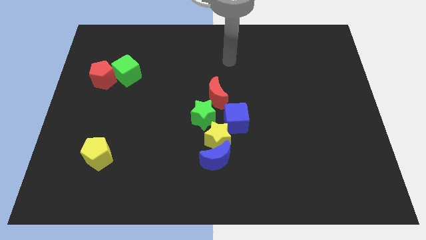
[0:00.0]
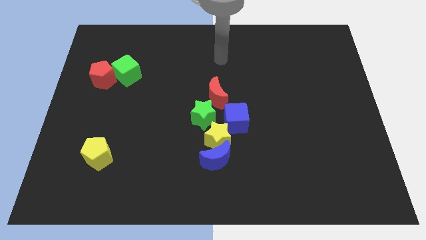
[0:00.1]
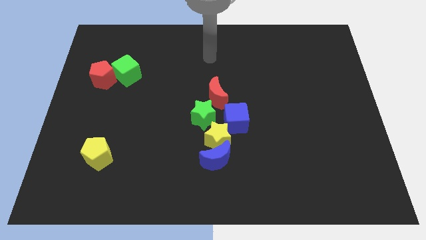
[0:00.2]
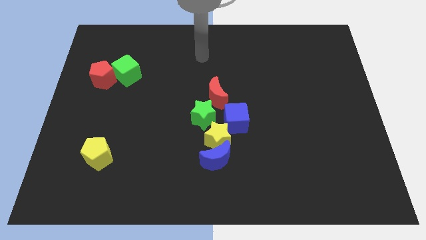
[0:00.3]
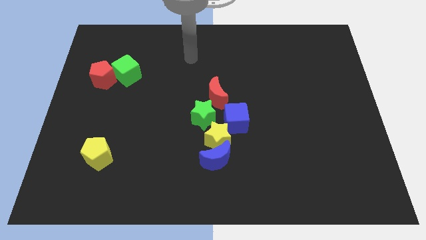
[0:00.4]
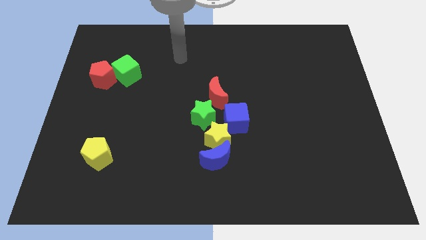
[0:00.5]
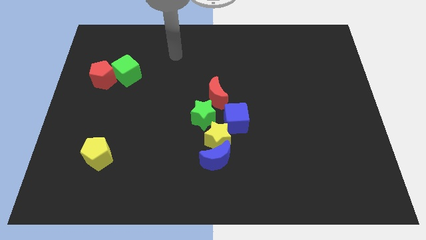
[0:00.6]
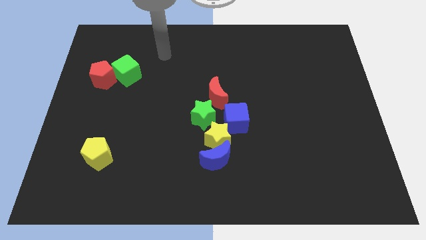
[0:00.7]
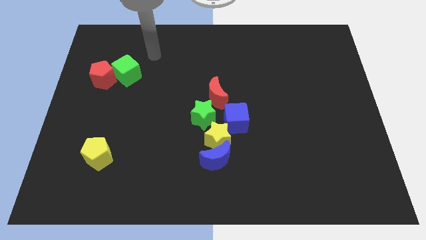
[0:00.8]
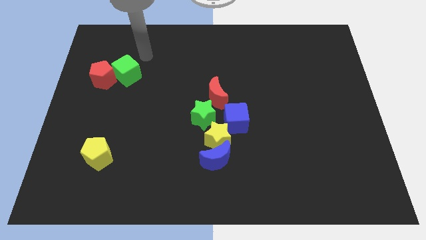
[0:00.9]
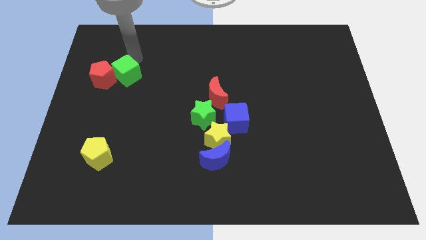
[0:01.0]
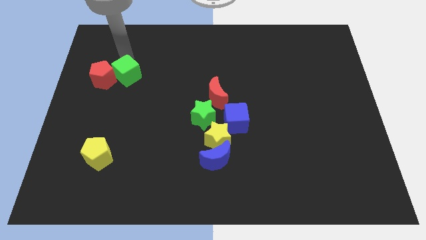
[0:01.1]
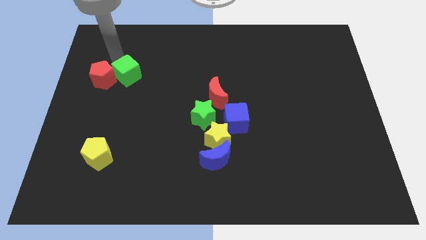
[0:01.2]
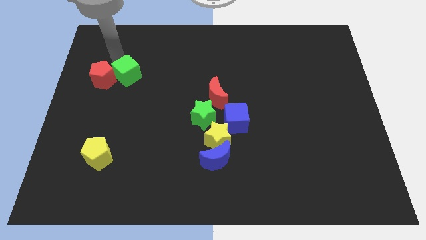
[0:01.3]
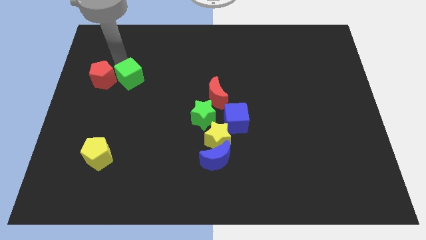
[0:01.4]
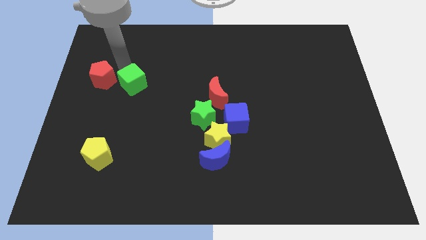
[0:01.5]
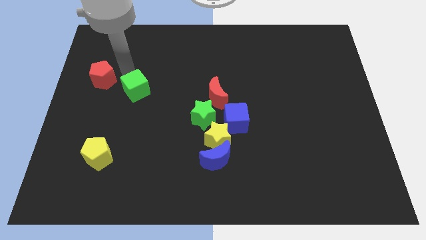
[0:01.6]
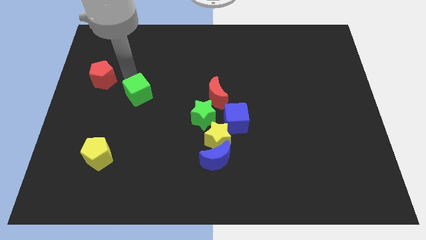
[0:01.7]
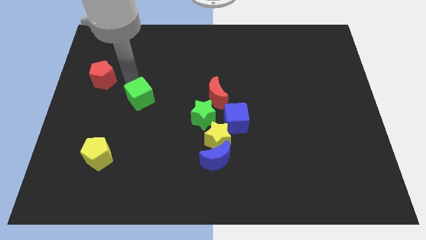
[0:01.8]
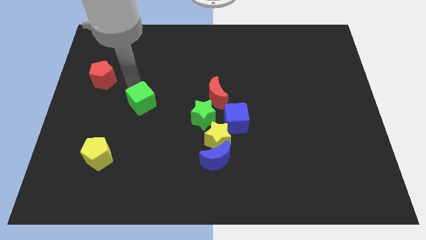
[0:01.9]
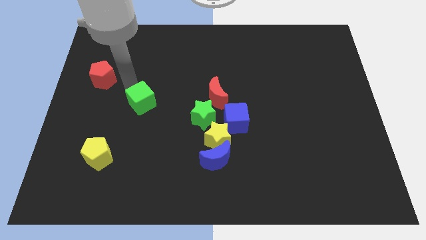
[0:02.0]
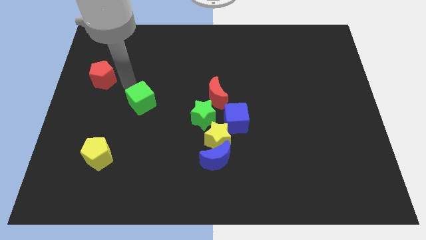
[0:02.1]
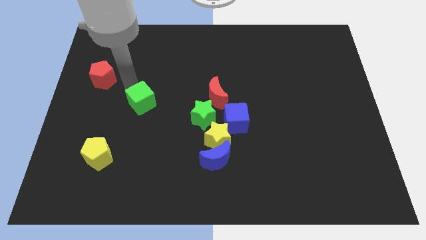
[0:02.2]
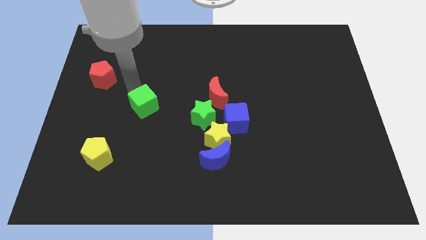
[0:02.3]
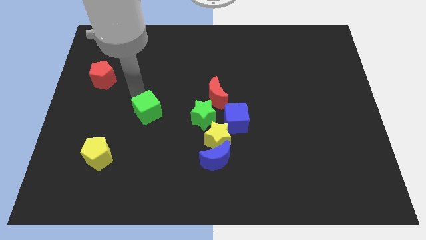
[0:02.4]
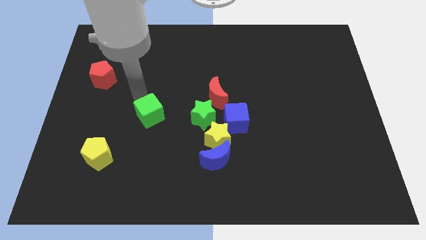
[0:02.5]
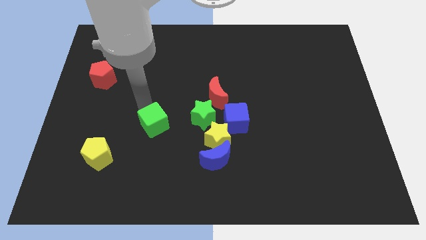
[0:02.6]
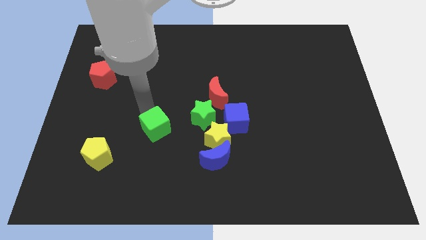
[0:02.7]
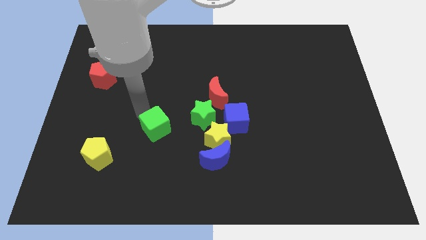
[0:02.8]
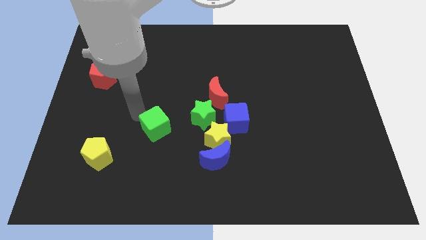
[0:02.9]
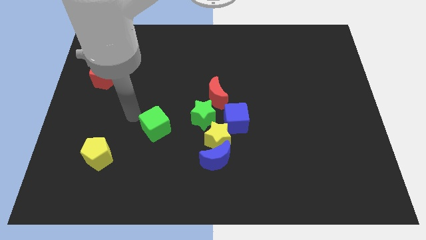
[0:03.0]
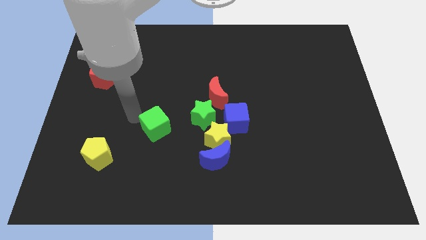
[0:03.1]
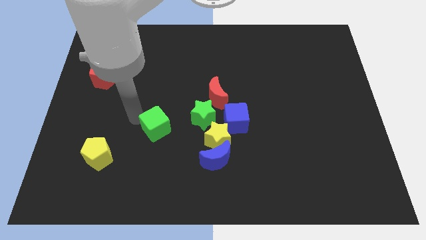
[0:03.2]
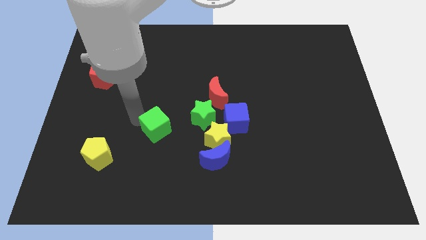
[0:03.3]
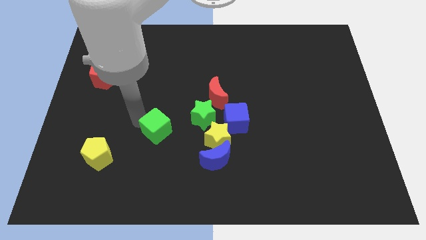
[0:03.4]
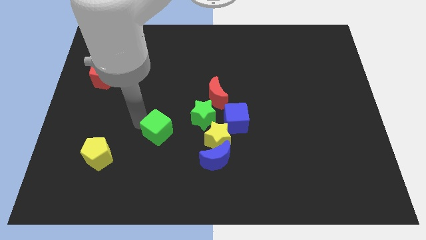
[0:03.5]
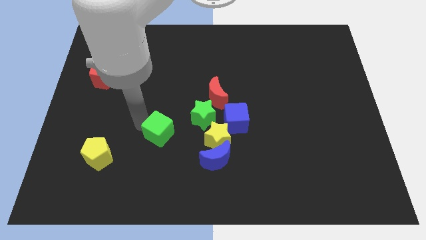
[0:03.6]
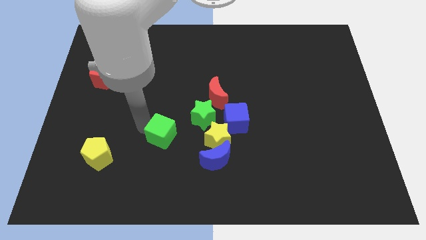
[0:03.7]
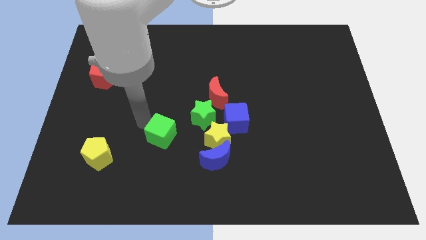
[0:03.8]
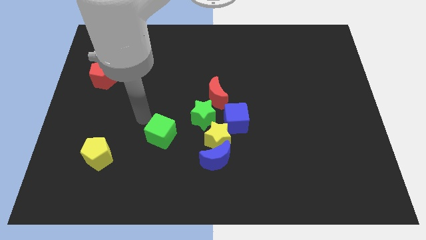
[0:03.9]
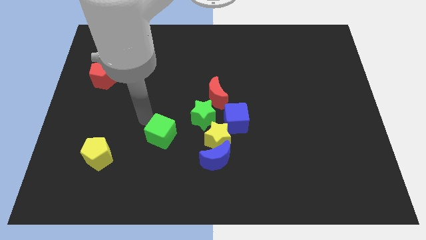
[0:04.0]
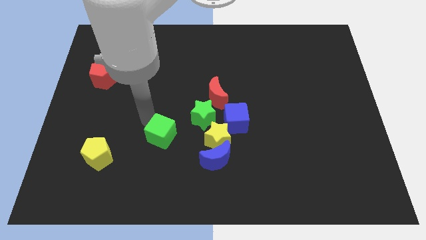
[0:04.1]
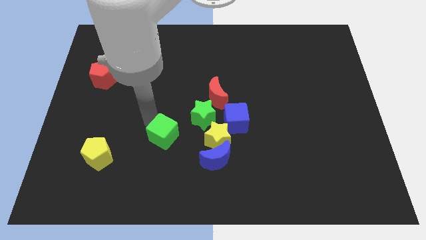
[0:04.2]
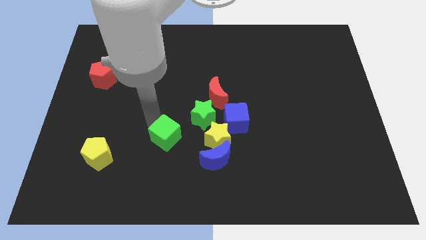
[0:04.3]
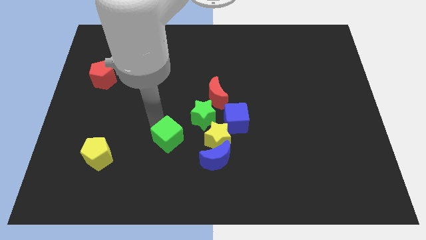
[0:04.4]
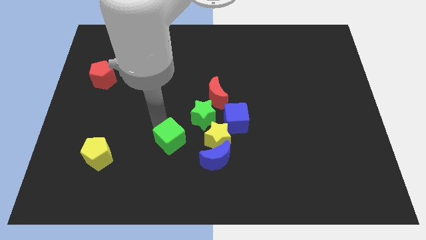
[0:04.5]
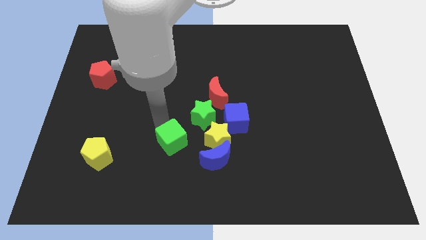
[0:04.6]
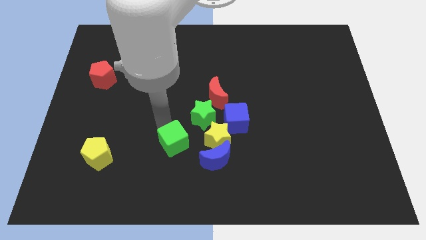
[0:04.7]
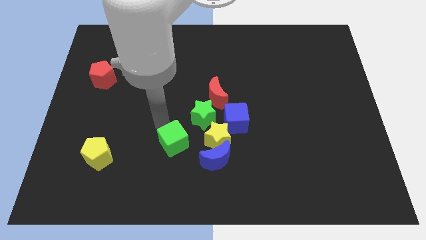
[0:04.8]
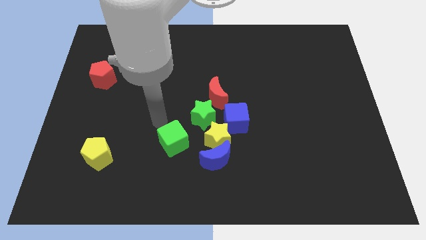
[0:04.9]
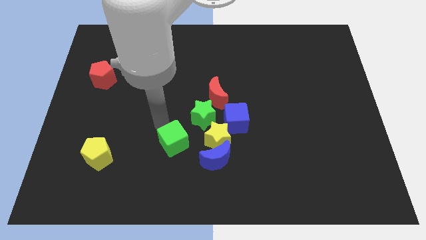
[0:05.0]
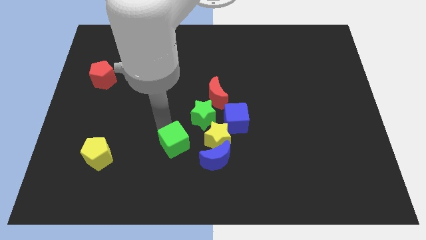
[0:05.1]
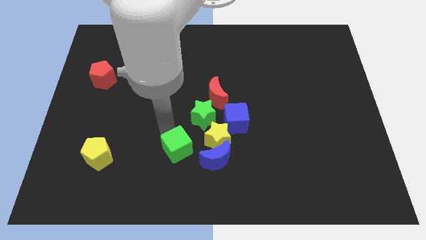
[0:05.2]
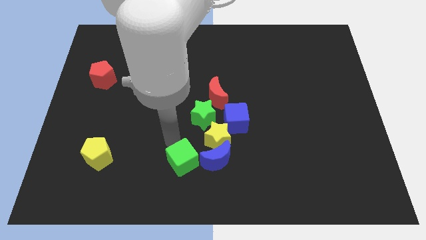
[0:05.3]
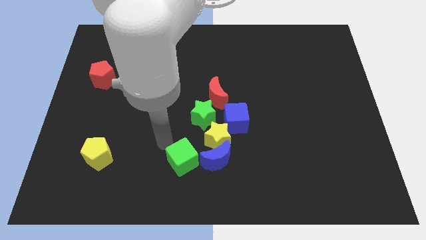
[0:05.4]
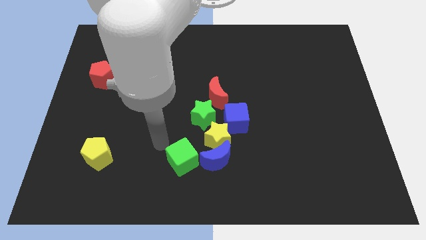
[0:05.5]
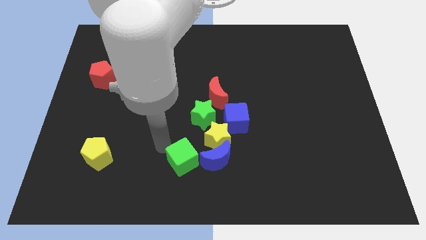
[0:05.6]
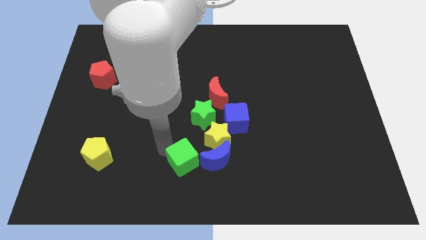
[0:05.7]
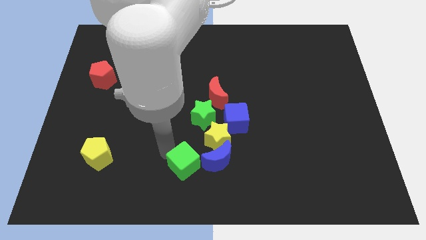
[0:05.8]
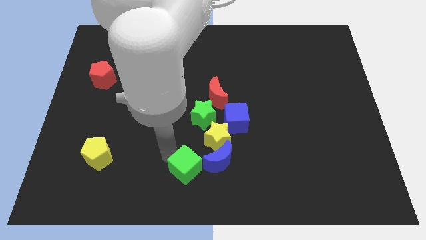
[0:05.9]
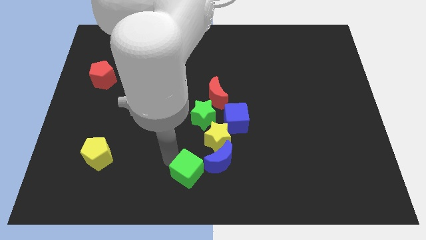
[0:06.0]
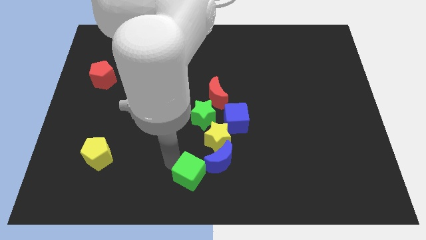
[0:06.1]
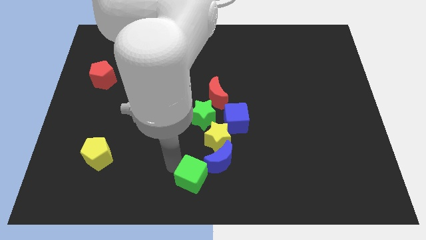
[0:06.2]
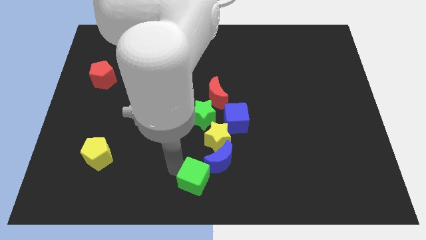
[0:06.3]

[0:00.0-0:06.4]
put the green cube to the bottom of the yellow star

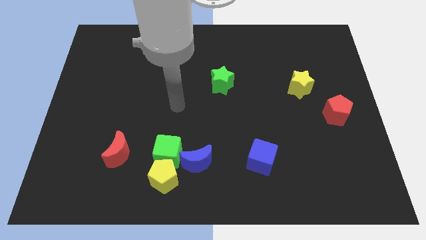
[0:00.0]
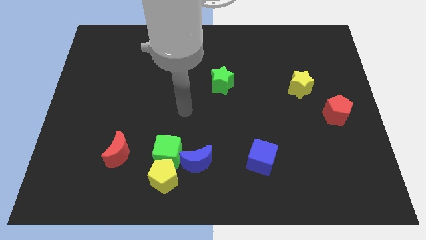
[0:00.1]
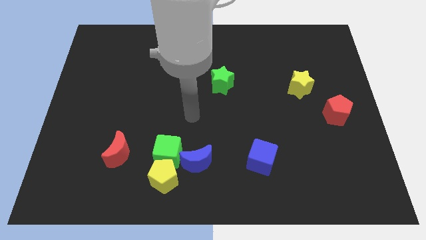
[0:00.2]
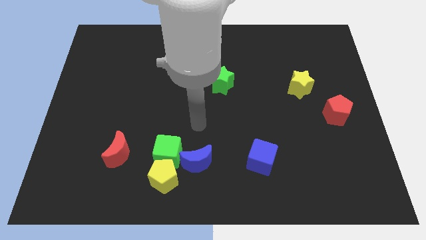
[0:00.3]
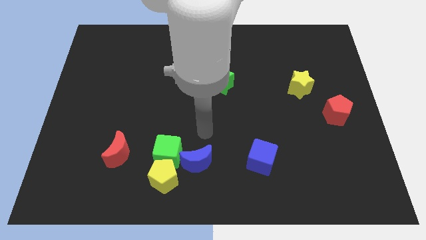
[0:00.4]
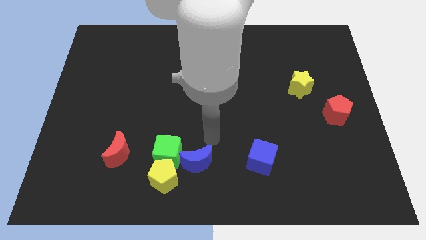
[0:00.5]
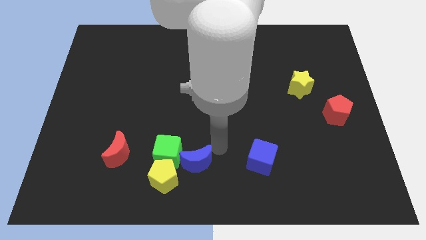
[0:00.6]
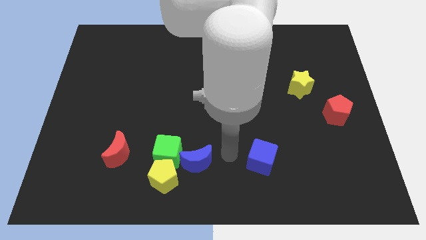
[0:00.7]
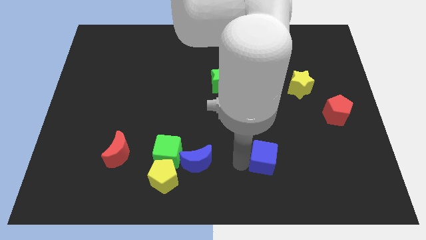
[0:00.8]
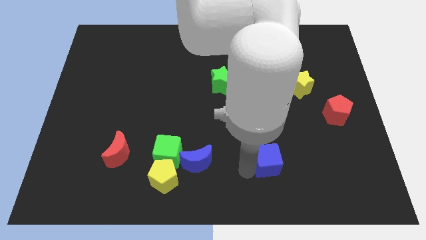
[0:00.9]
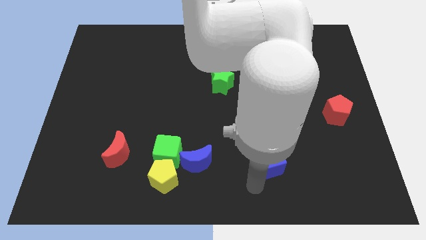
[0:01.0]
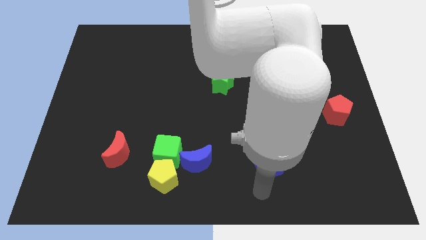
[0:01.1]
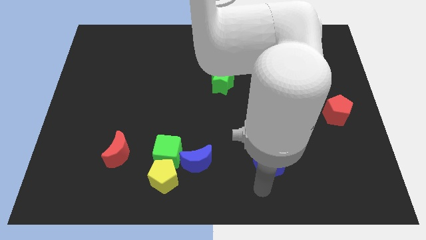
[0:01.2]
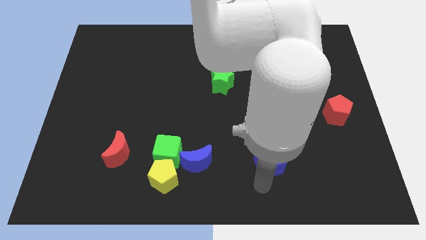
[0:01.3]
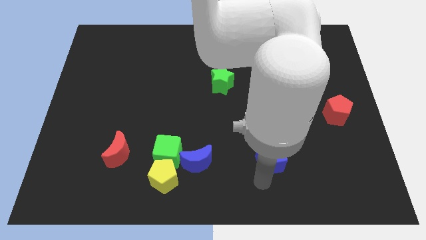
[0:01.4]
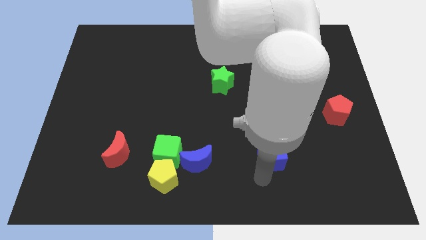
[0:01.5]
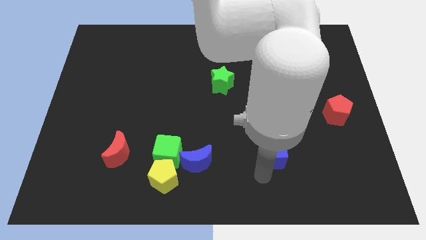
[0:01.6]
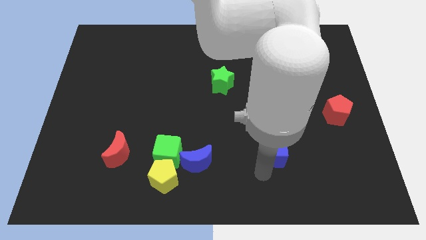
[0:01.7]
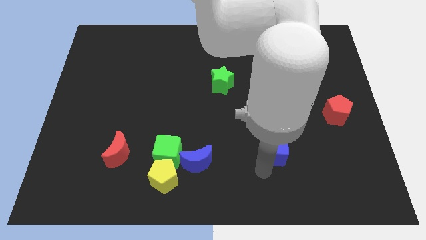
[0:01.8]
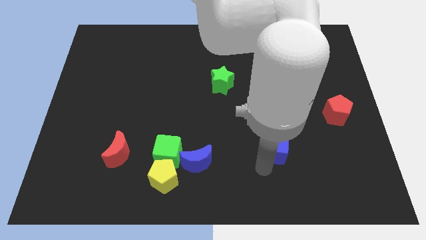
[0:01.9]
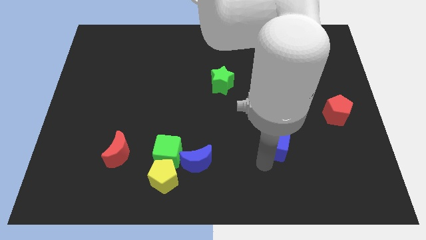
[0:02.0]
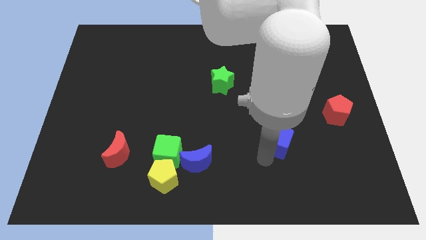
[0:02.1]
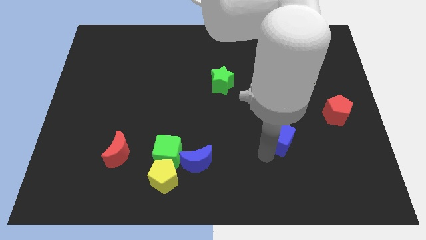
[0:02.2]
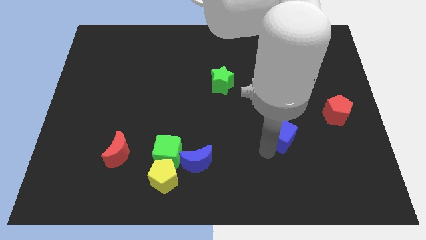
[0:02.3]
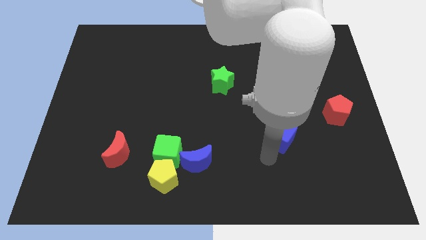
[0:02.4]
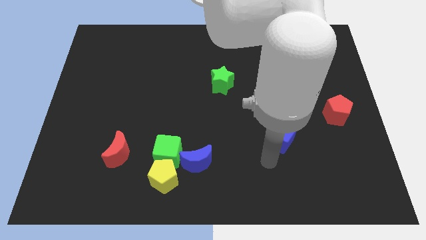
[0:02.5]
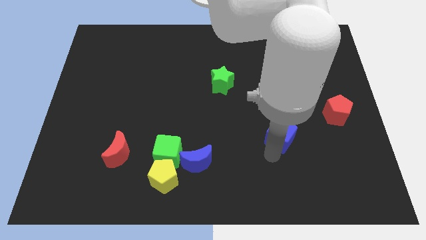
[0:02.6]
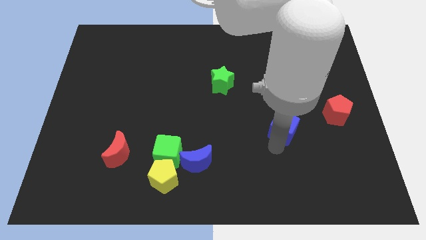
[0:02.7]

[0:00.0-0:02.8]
put the blue cube left of the red pentagon
